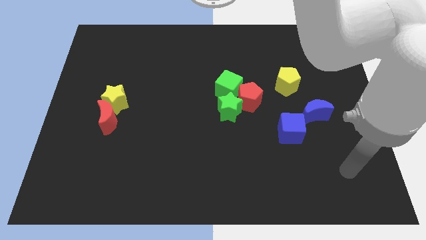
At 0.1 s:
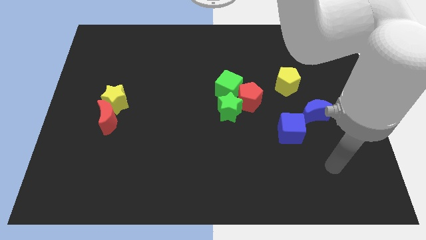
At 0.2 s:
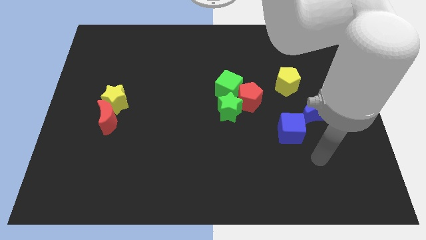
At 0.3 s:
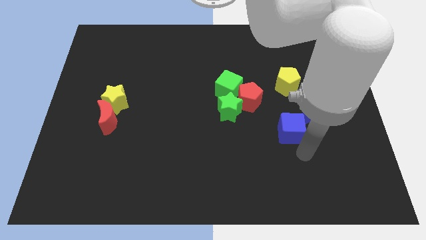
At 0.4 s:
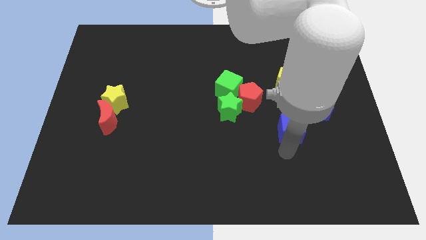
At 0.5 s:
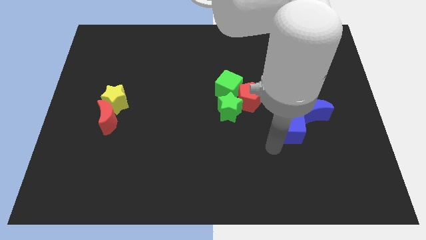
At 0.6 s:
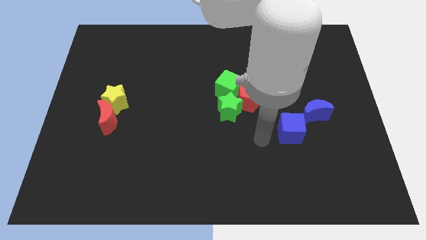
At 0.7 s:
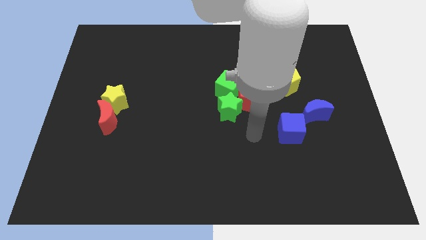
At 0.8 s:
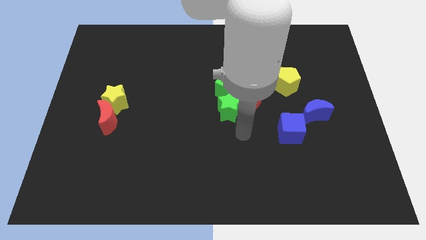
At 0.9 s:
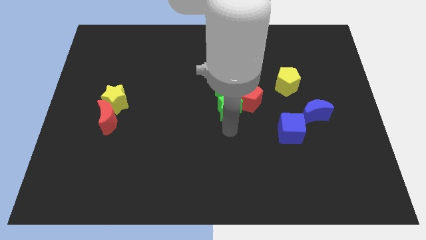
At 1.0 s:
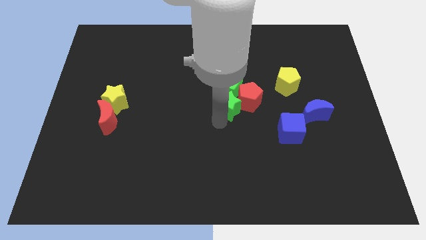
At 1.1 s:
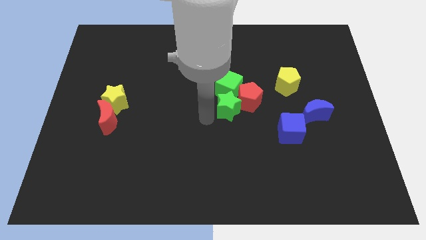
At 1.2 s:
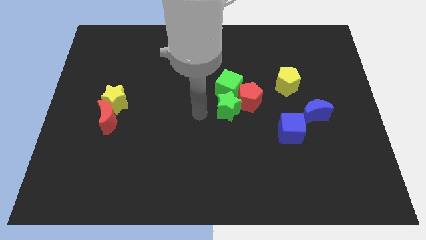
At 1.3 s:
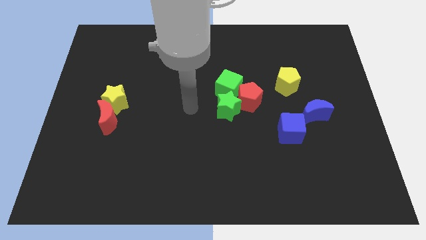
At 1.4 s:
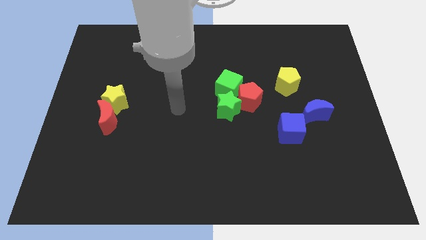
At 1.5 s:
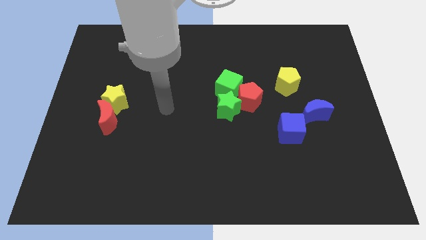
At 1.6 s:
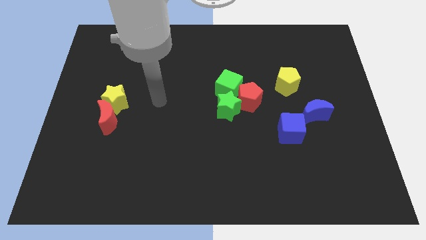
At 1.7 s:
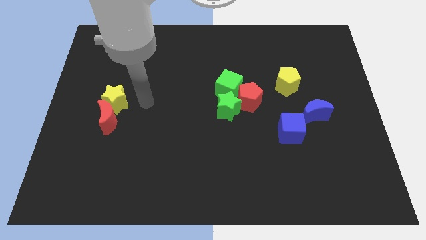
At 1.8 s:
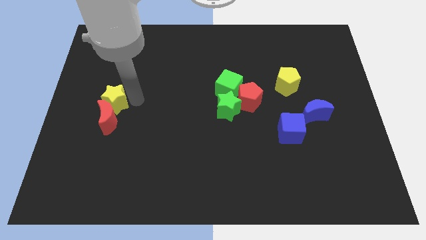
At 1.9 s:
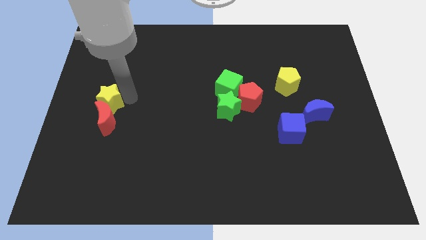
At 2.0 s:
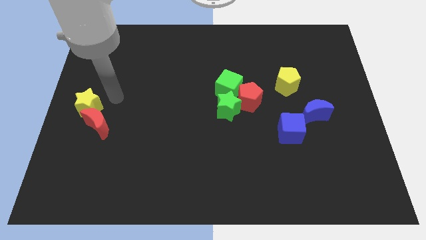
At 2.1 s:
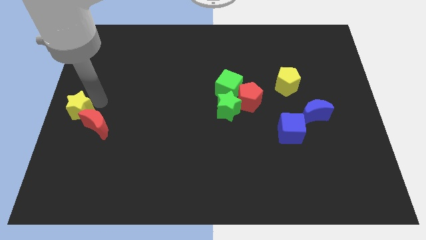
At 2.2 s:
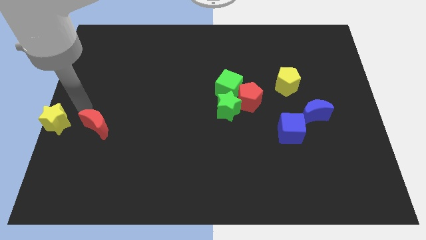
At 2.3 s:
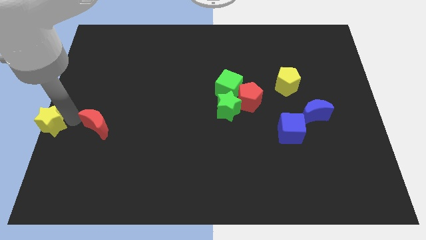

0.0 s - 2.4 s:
move the red moon away from the yellow star

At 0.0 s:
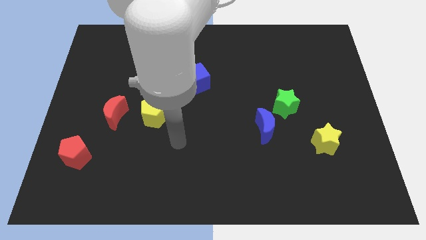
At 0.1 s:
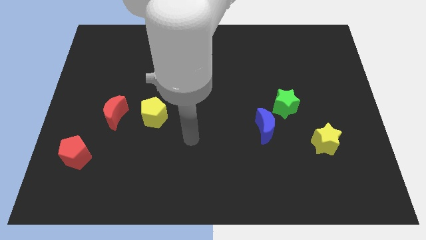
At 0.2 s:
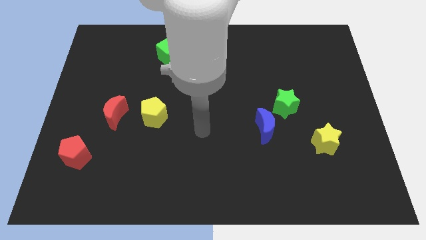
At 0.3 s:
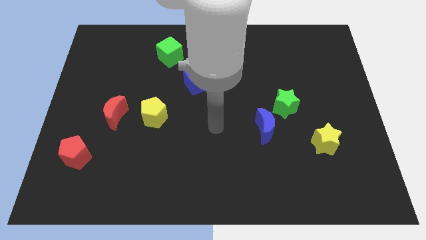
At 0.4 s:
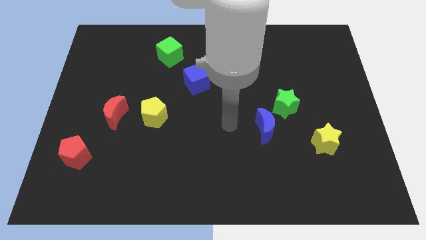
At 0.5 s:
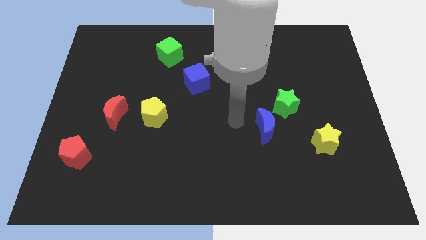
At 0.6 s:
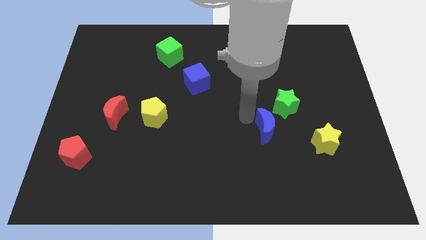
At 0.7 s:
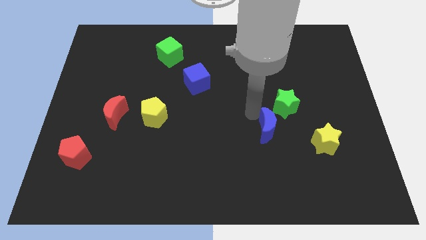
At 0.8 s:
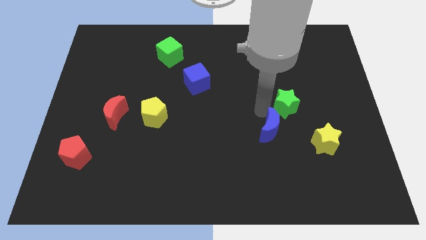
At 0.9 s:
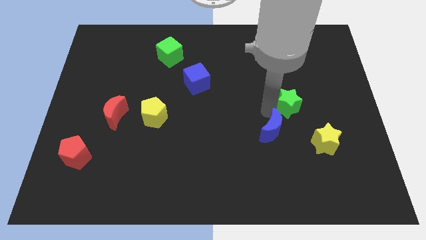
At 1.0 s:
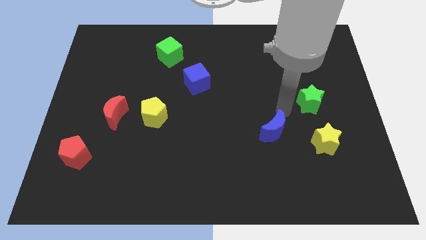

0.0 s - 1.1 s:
pull the blue moon apart from the green star

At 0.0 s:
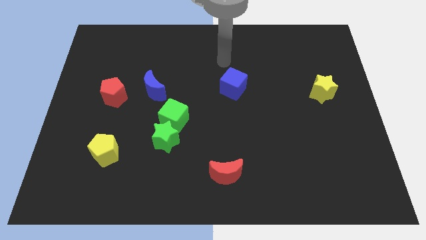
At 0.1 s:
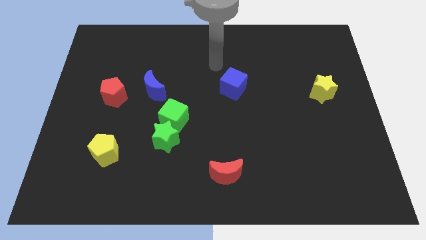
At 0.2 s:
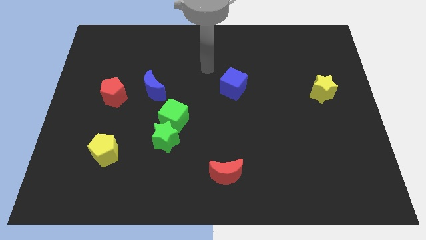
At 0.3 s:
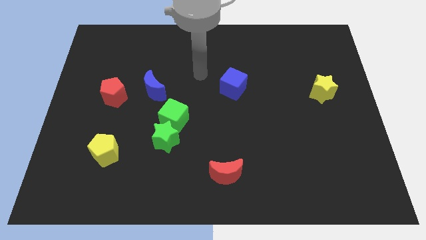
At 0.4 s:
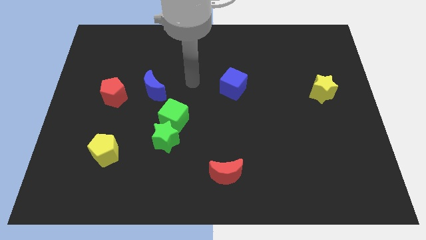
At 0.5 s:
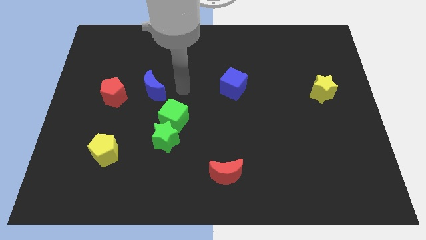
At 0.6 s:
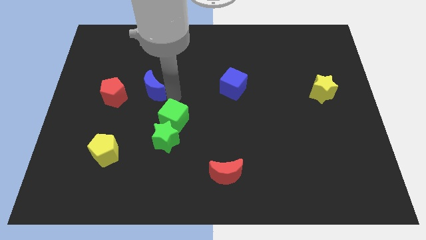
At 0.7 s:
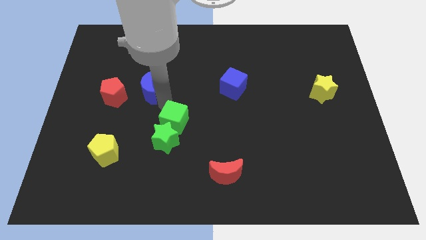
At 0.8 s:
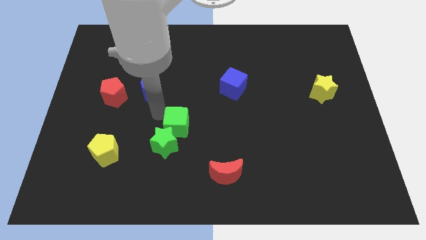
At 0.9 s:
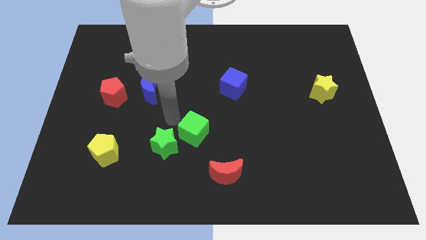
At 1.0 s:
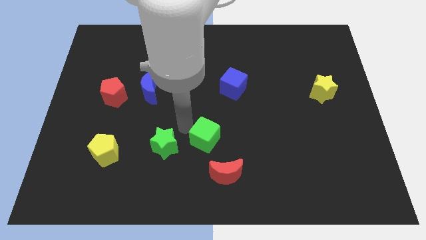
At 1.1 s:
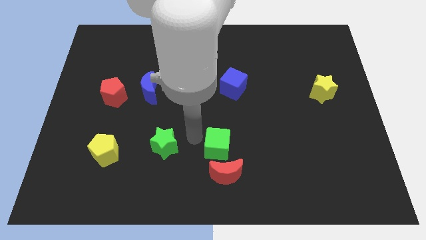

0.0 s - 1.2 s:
separate the green star from the green cube

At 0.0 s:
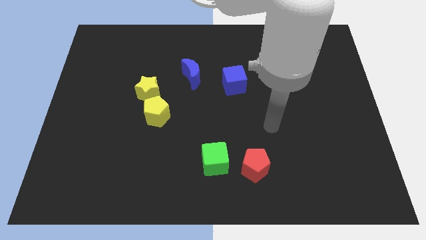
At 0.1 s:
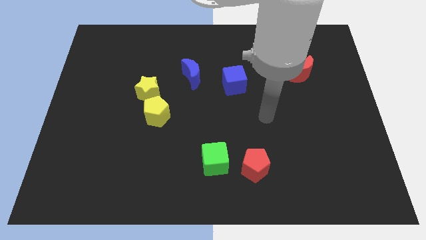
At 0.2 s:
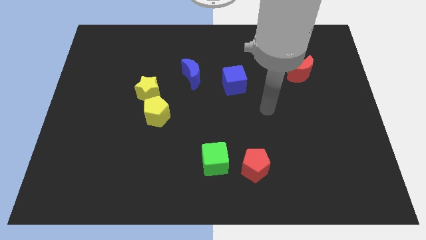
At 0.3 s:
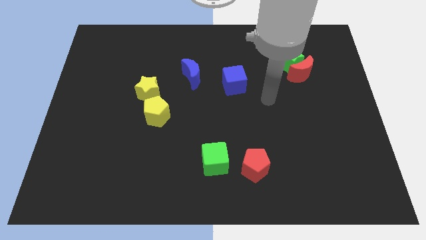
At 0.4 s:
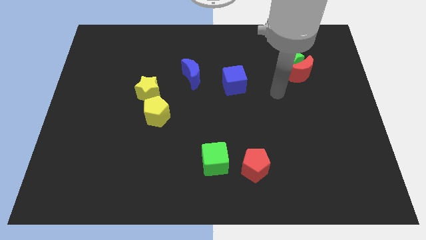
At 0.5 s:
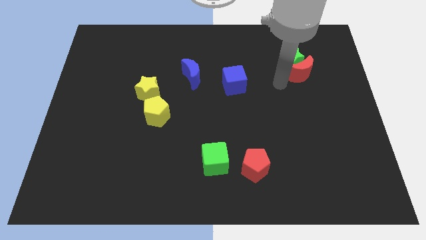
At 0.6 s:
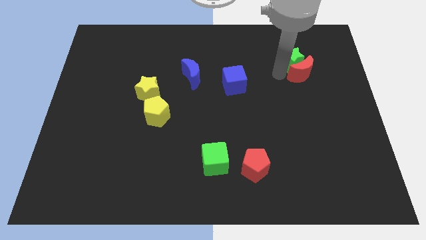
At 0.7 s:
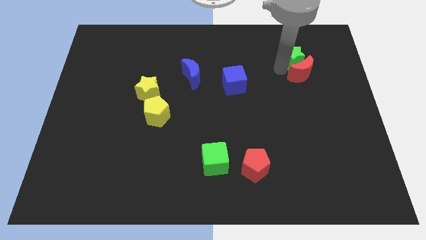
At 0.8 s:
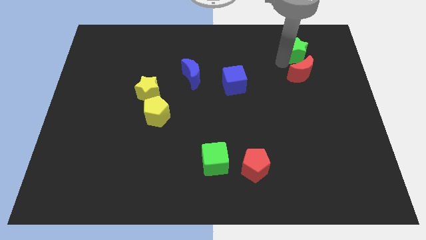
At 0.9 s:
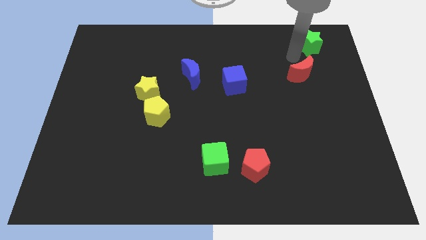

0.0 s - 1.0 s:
move the red moon away from the green star

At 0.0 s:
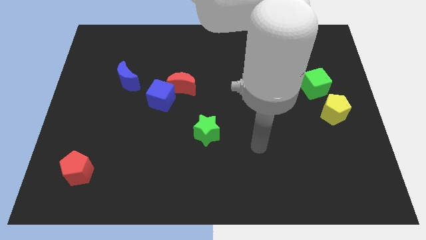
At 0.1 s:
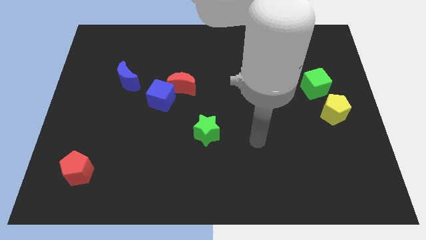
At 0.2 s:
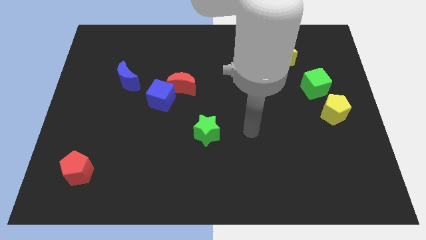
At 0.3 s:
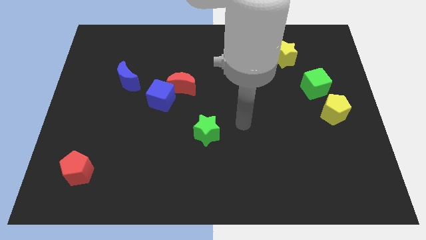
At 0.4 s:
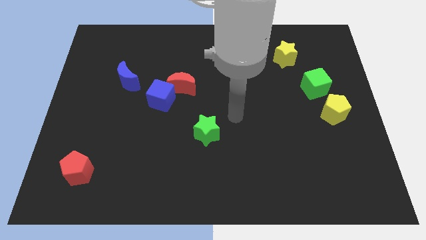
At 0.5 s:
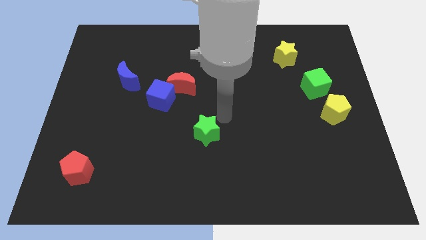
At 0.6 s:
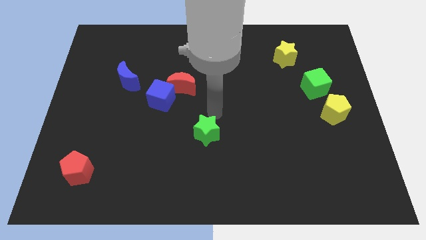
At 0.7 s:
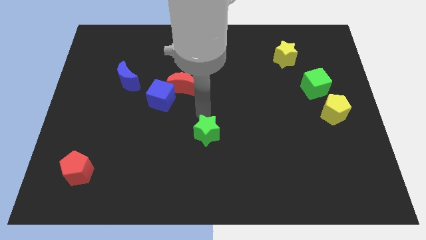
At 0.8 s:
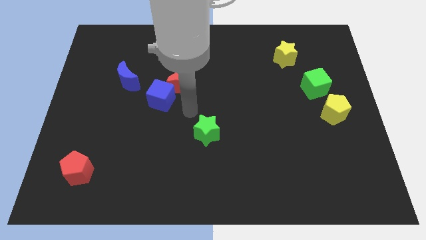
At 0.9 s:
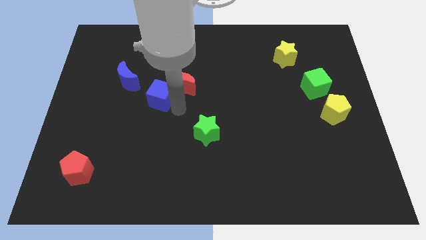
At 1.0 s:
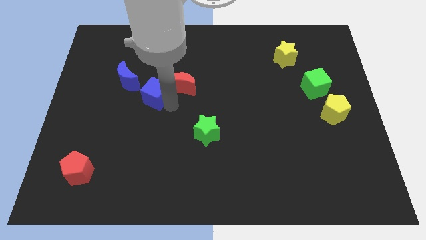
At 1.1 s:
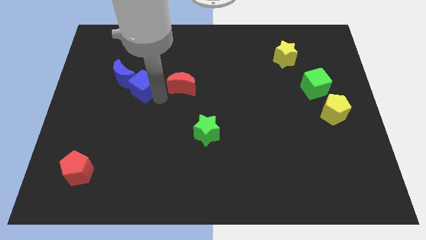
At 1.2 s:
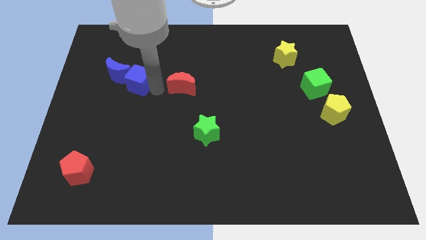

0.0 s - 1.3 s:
move the red moon away from the blue cube

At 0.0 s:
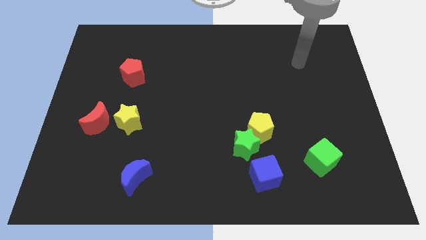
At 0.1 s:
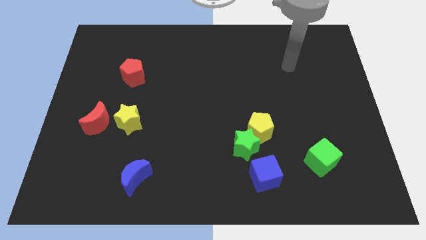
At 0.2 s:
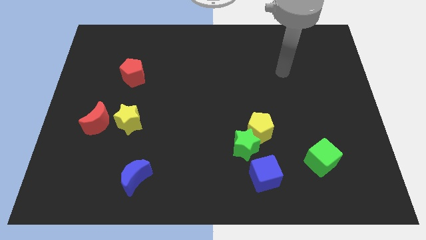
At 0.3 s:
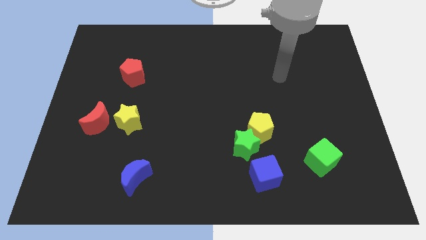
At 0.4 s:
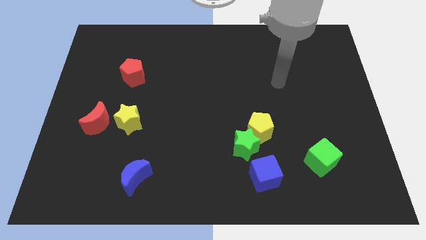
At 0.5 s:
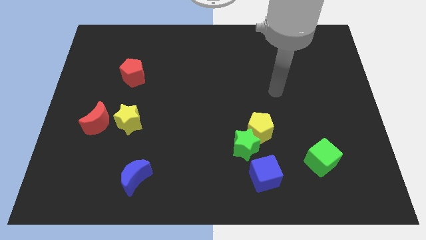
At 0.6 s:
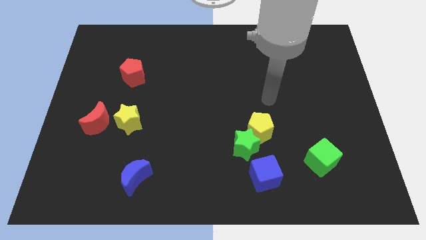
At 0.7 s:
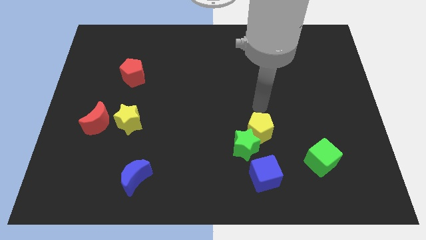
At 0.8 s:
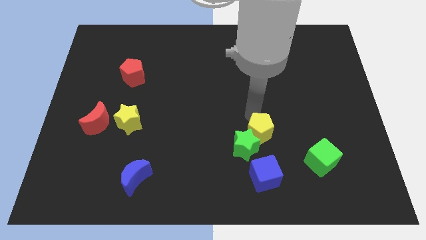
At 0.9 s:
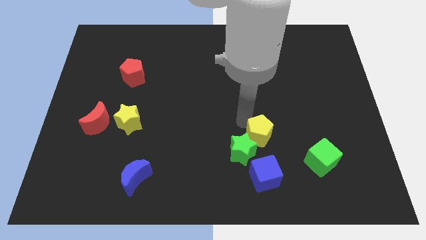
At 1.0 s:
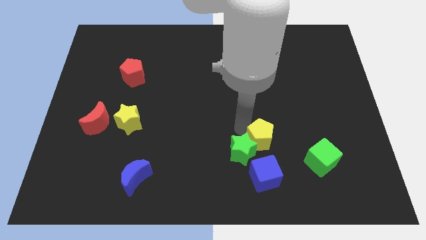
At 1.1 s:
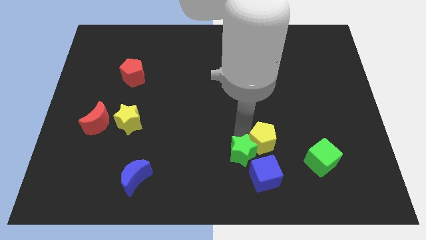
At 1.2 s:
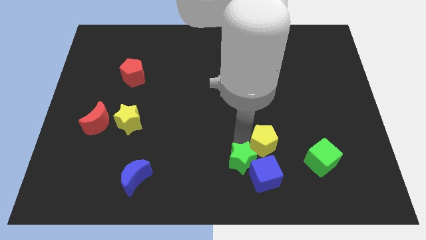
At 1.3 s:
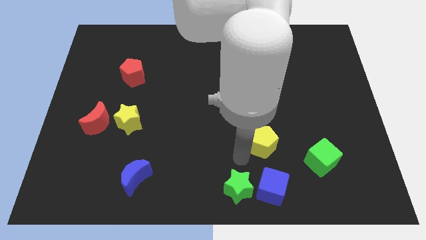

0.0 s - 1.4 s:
move the yellow pentagon away from the green star

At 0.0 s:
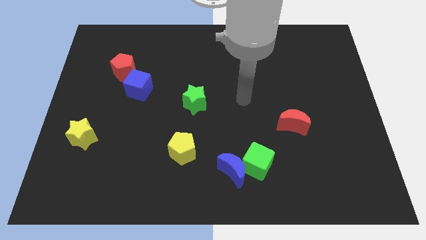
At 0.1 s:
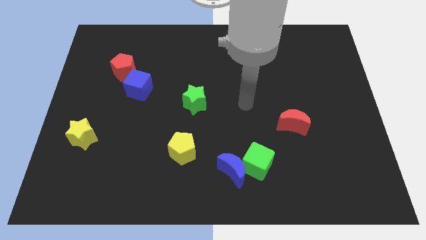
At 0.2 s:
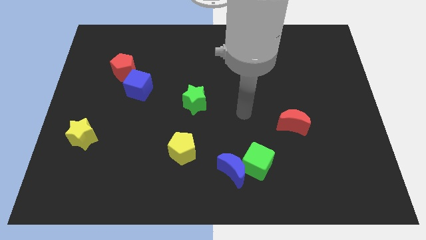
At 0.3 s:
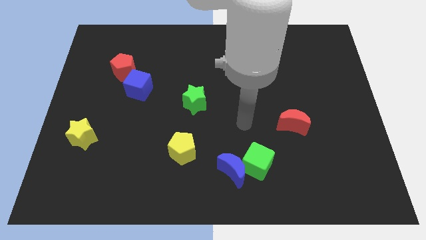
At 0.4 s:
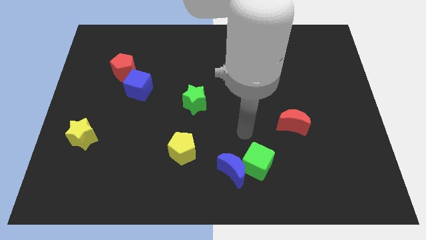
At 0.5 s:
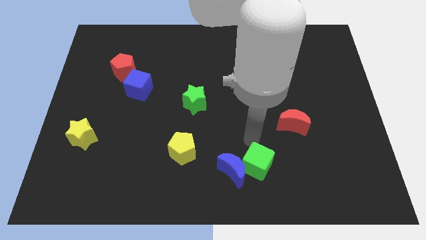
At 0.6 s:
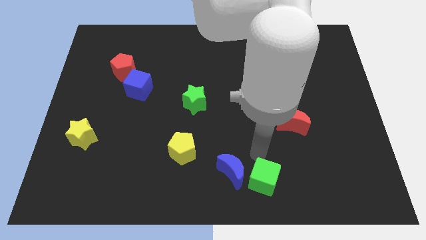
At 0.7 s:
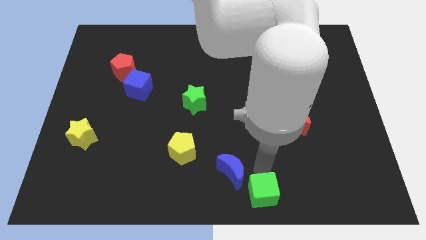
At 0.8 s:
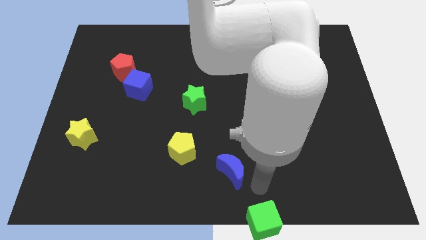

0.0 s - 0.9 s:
separate the blue moon from the green cube
